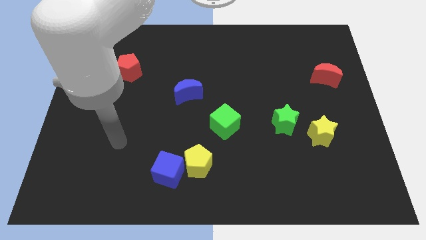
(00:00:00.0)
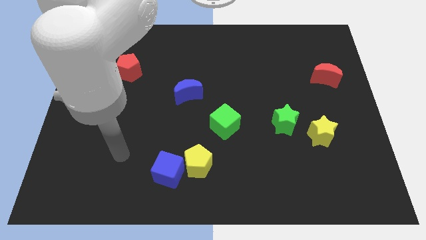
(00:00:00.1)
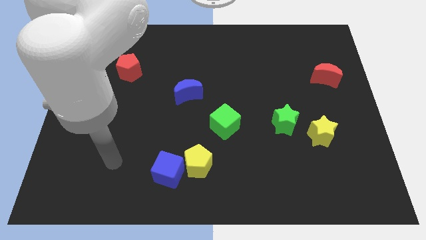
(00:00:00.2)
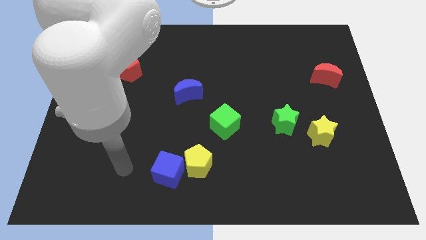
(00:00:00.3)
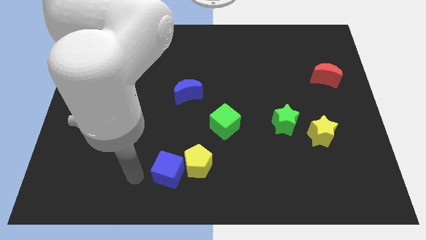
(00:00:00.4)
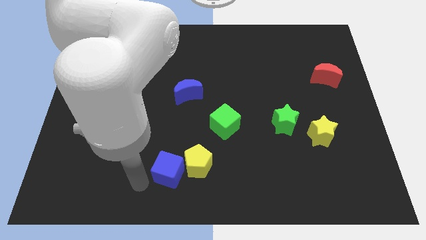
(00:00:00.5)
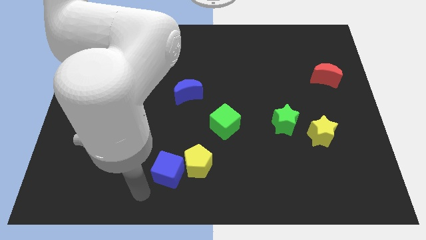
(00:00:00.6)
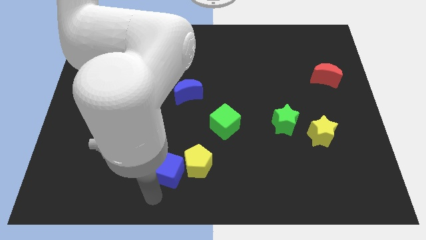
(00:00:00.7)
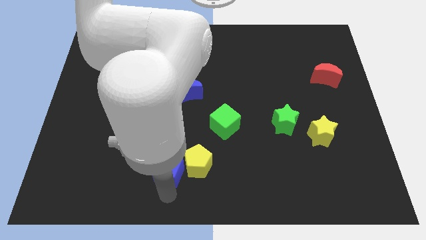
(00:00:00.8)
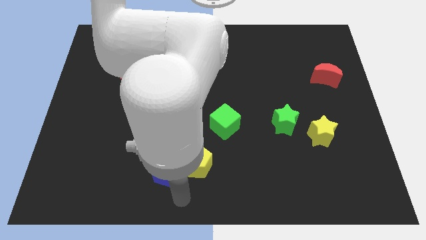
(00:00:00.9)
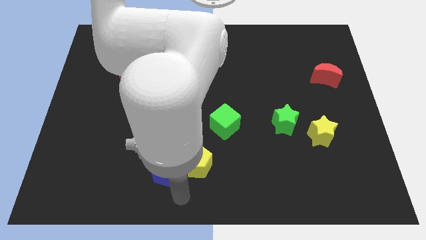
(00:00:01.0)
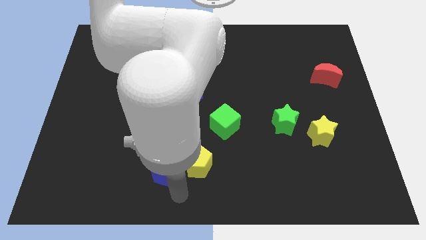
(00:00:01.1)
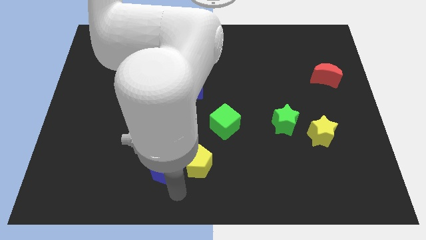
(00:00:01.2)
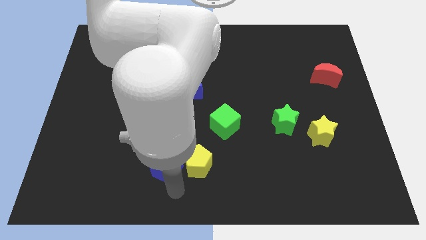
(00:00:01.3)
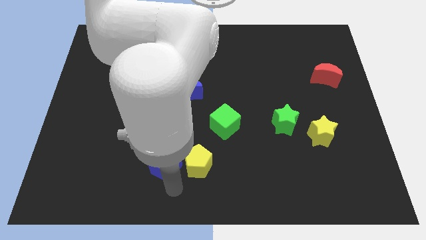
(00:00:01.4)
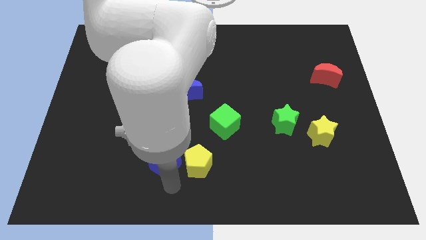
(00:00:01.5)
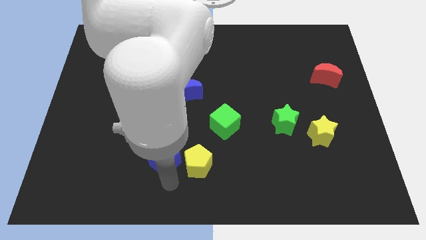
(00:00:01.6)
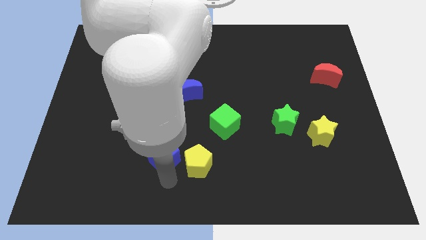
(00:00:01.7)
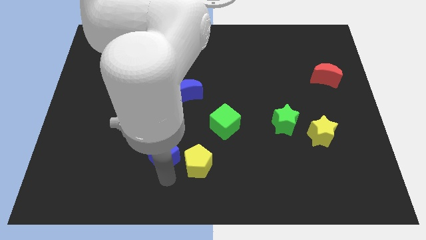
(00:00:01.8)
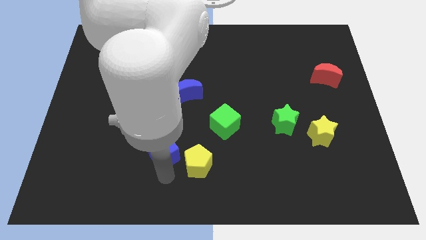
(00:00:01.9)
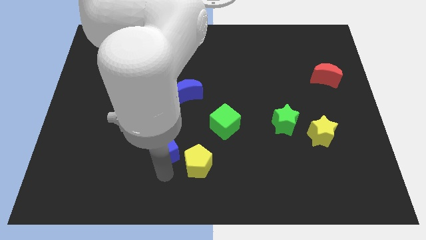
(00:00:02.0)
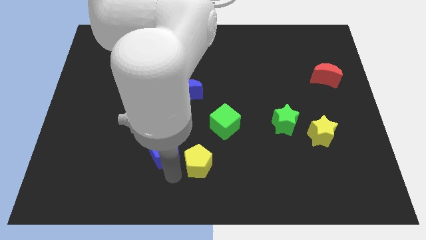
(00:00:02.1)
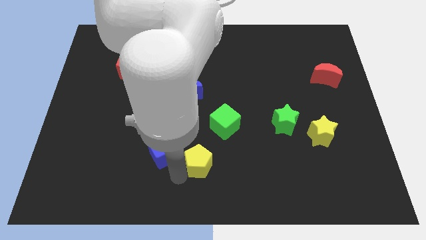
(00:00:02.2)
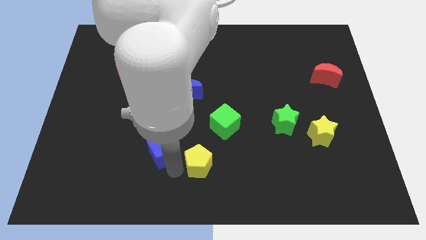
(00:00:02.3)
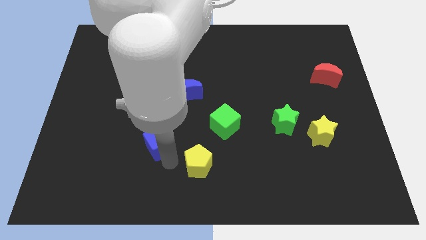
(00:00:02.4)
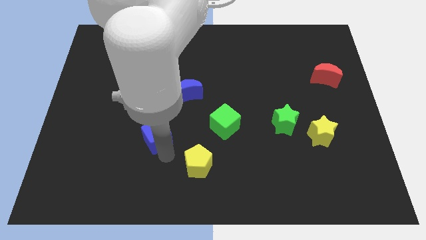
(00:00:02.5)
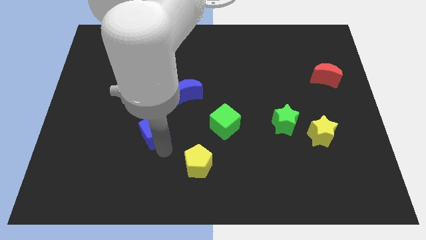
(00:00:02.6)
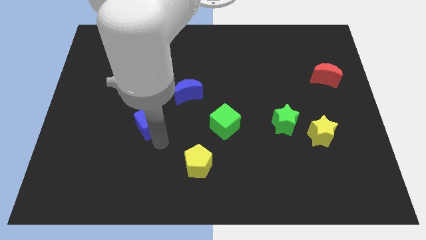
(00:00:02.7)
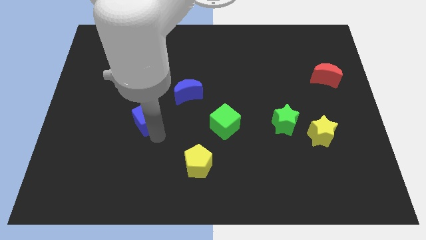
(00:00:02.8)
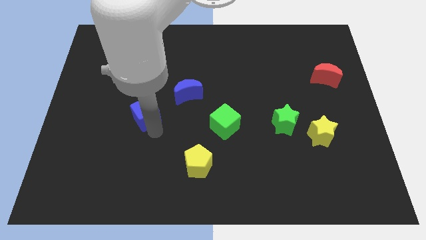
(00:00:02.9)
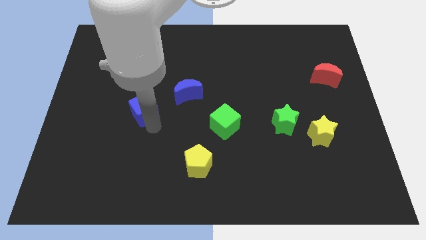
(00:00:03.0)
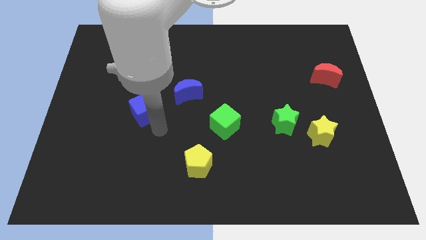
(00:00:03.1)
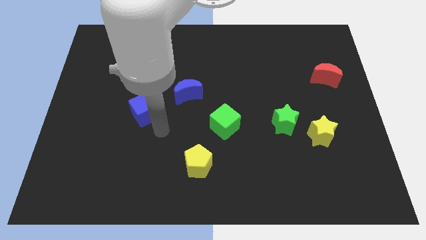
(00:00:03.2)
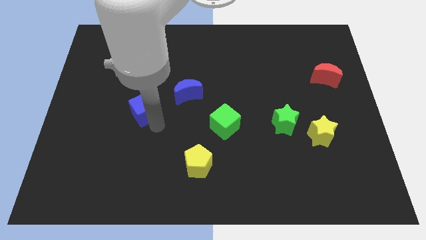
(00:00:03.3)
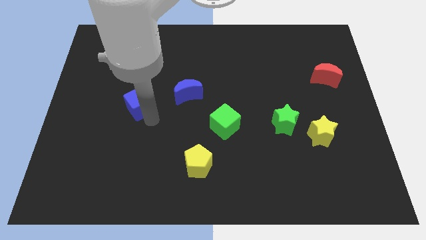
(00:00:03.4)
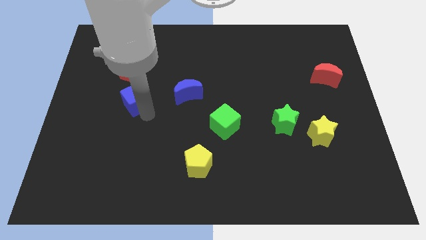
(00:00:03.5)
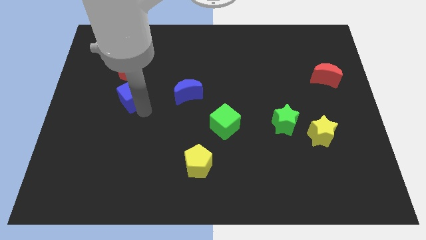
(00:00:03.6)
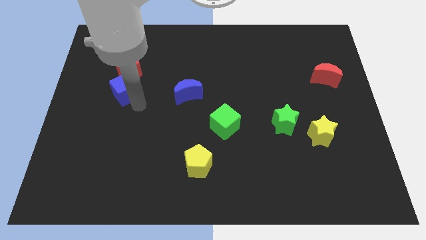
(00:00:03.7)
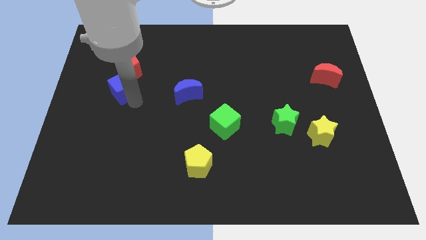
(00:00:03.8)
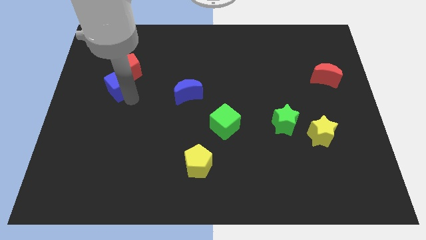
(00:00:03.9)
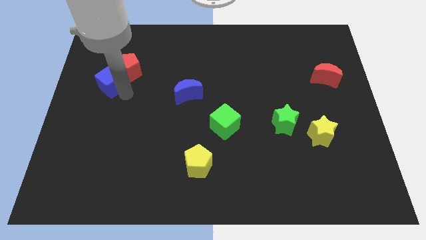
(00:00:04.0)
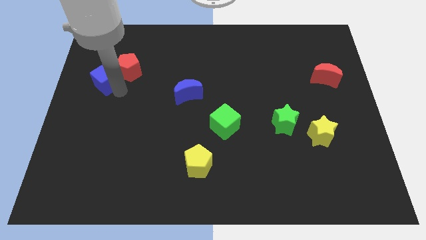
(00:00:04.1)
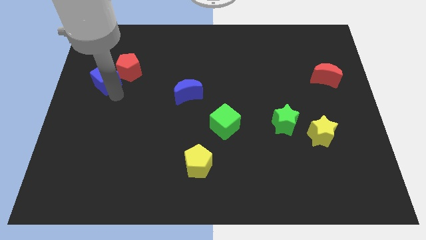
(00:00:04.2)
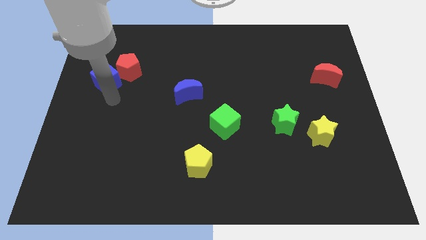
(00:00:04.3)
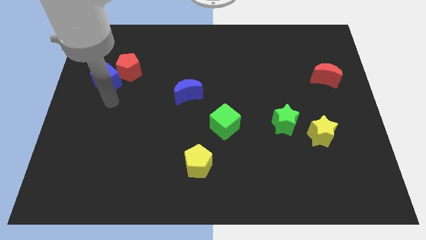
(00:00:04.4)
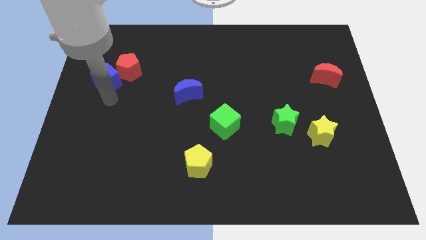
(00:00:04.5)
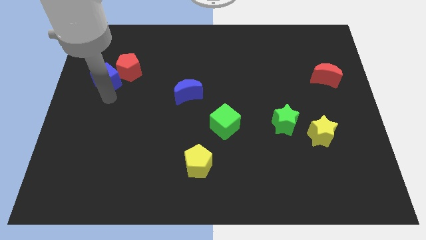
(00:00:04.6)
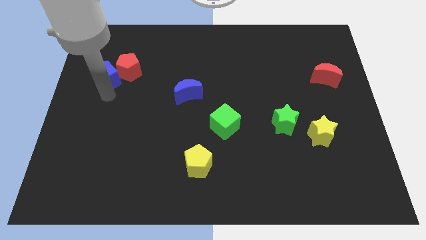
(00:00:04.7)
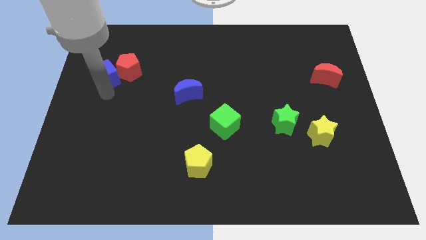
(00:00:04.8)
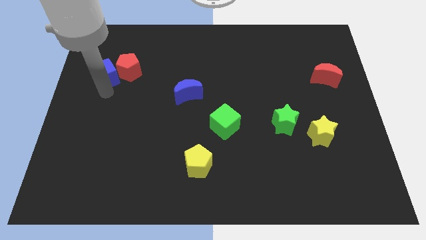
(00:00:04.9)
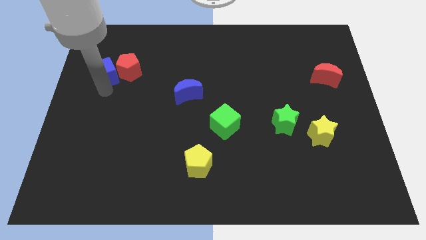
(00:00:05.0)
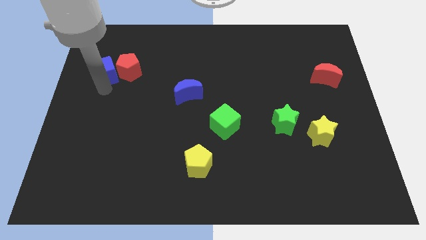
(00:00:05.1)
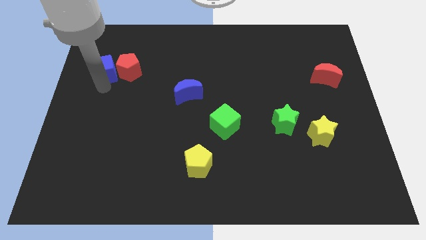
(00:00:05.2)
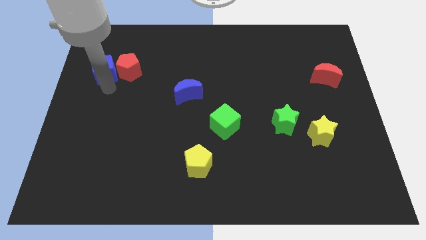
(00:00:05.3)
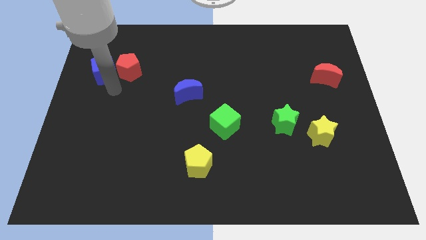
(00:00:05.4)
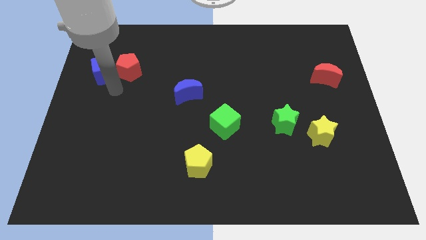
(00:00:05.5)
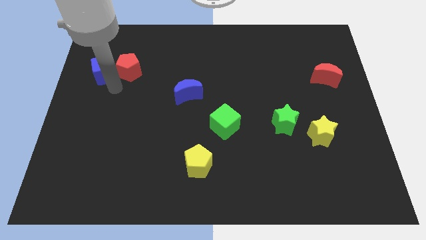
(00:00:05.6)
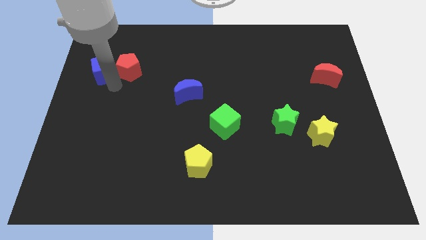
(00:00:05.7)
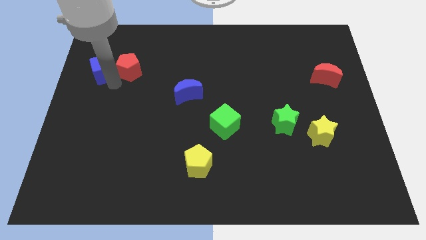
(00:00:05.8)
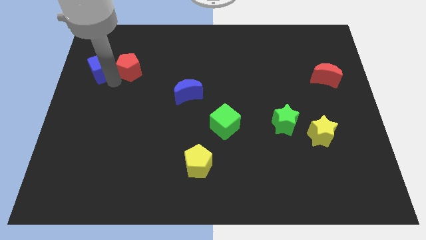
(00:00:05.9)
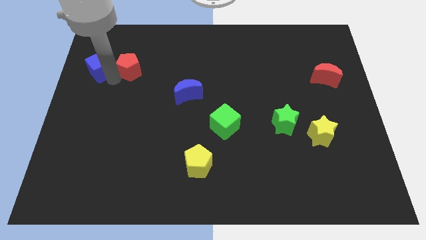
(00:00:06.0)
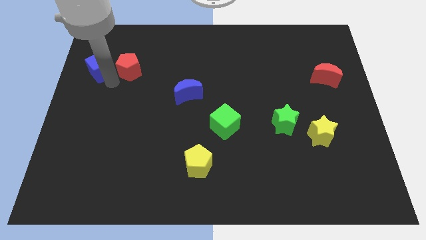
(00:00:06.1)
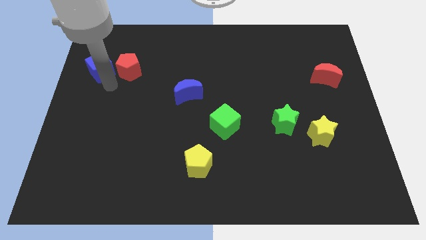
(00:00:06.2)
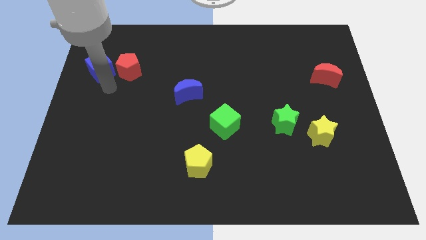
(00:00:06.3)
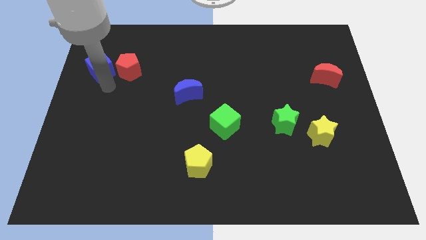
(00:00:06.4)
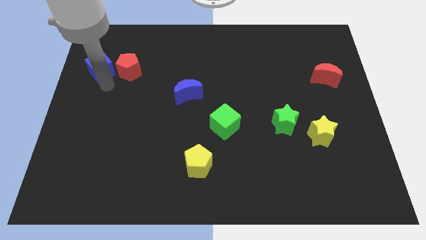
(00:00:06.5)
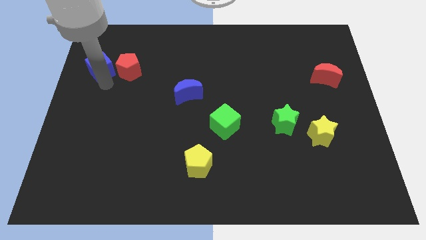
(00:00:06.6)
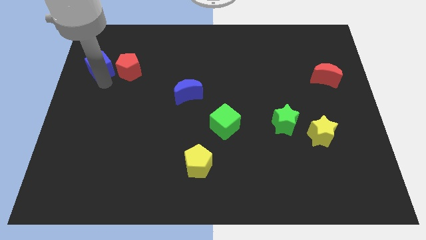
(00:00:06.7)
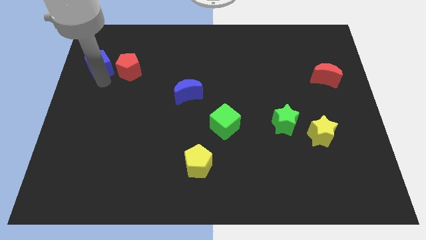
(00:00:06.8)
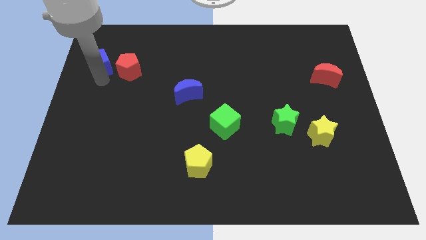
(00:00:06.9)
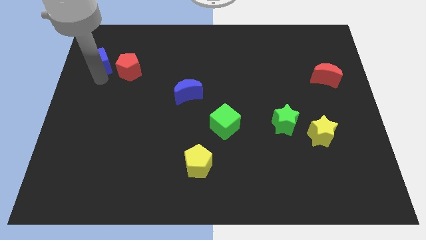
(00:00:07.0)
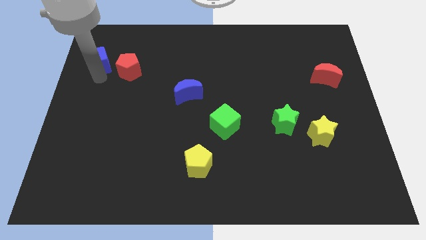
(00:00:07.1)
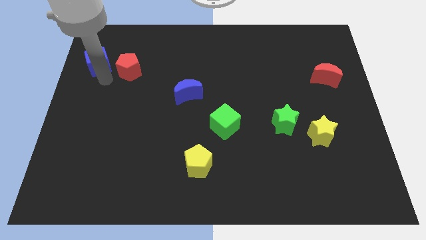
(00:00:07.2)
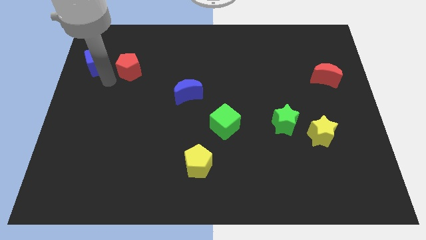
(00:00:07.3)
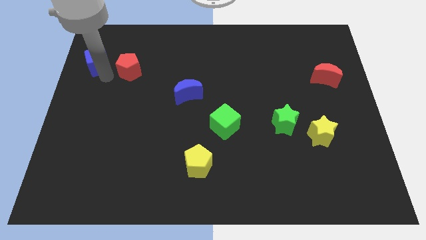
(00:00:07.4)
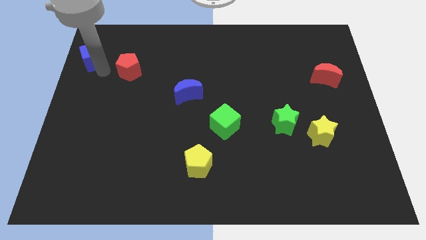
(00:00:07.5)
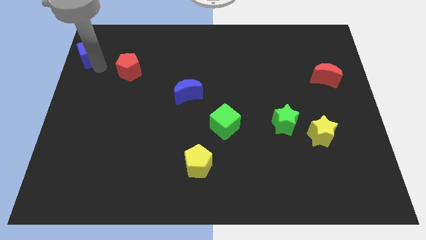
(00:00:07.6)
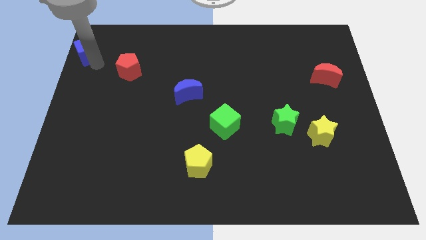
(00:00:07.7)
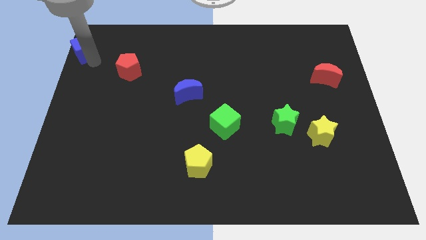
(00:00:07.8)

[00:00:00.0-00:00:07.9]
push the blue cube to the top left corner
